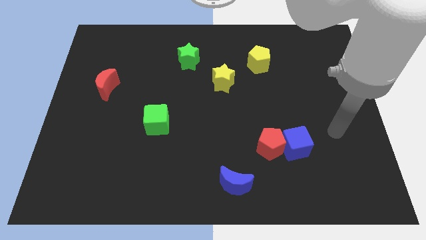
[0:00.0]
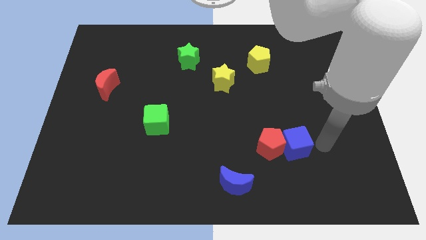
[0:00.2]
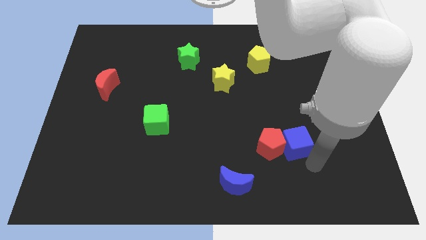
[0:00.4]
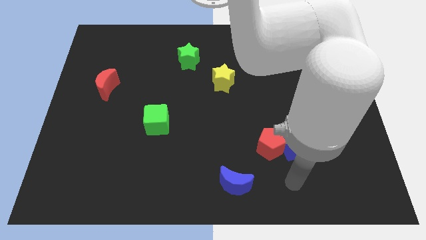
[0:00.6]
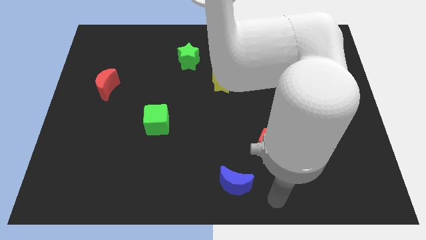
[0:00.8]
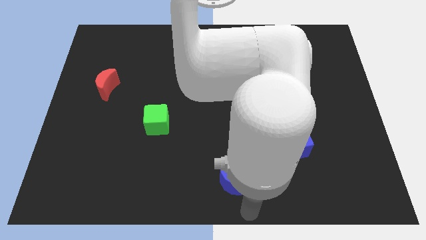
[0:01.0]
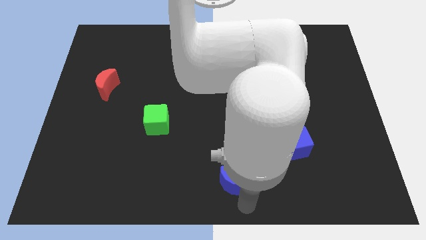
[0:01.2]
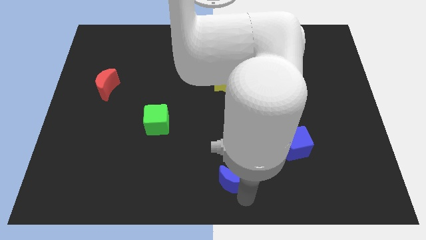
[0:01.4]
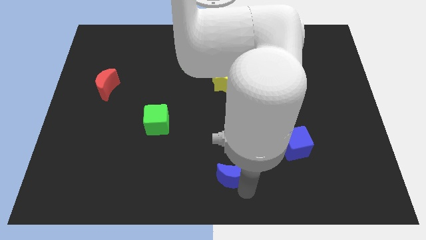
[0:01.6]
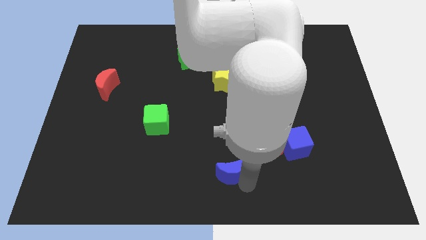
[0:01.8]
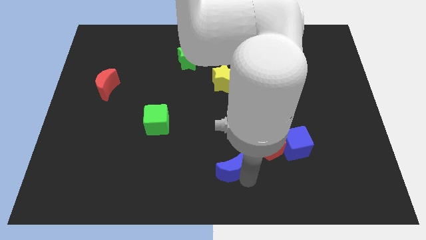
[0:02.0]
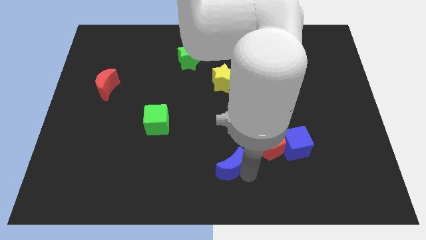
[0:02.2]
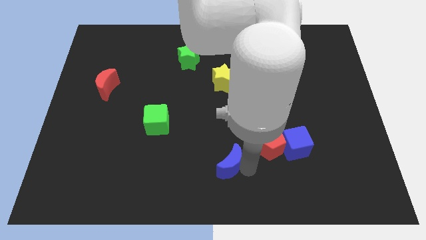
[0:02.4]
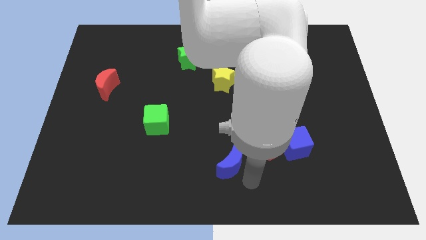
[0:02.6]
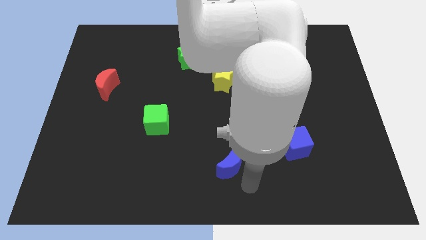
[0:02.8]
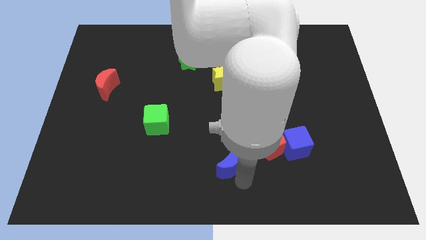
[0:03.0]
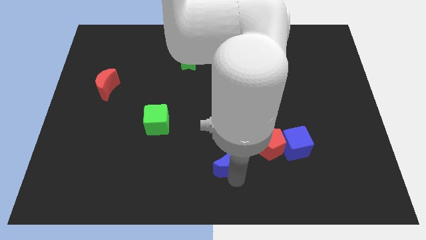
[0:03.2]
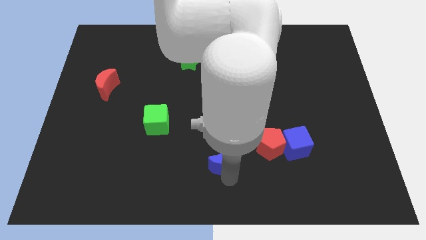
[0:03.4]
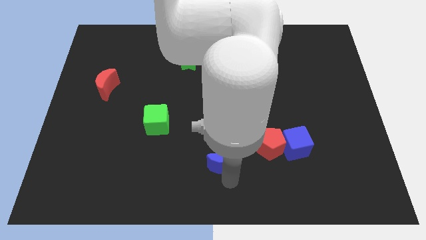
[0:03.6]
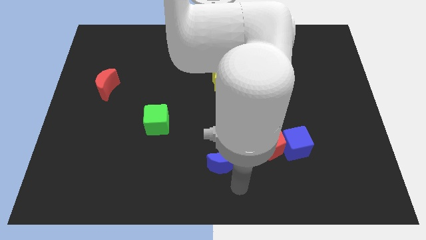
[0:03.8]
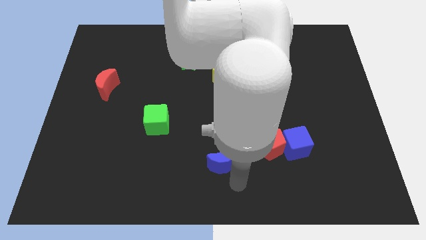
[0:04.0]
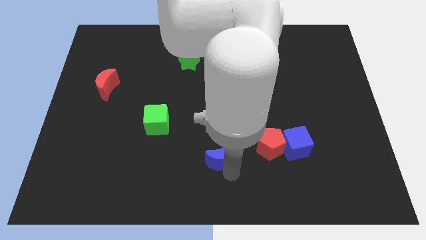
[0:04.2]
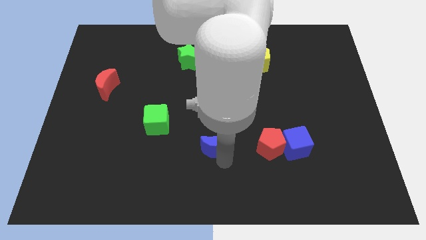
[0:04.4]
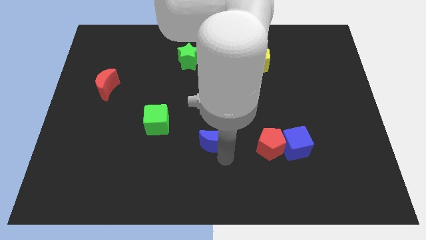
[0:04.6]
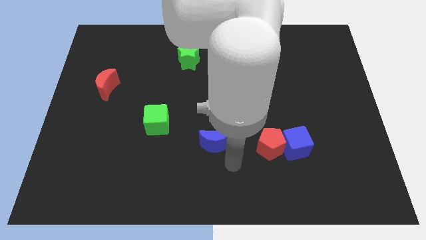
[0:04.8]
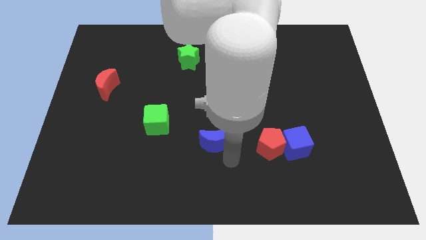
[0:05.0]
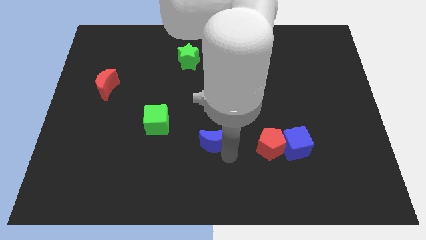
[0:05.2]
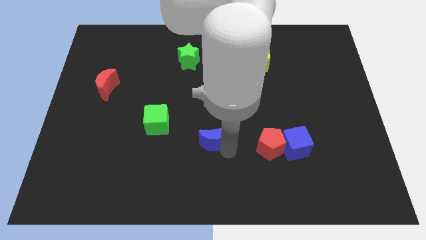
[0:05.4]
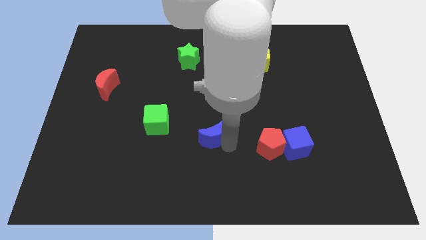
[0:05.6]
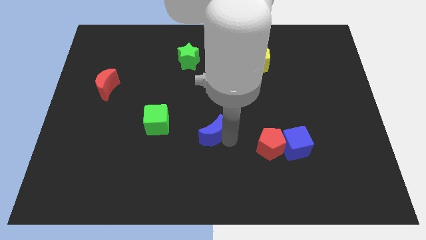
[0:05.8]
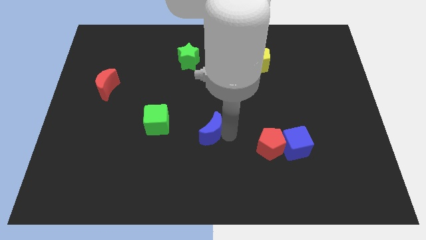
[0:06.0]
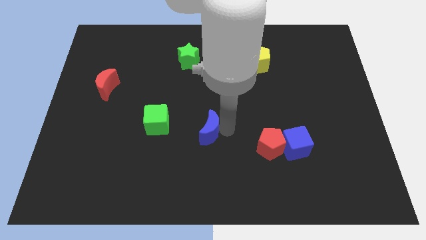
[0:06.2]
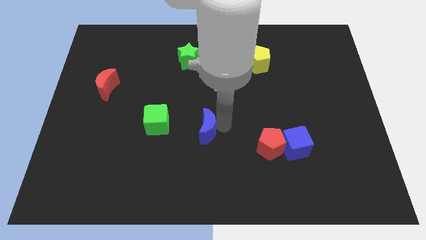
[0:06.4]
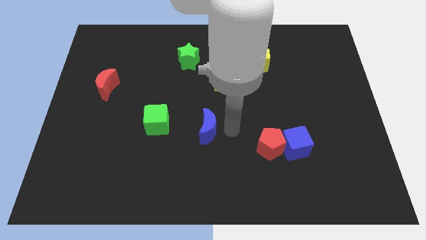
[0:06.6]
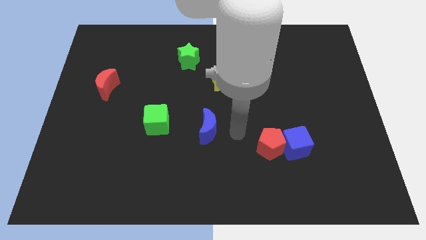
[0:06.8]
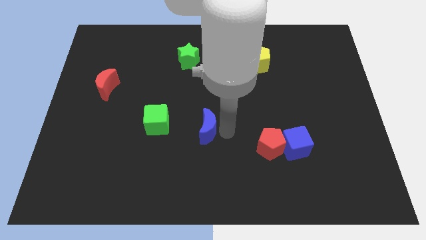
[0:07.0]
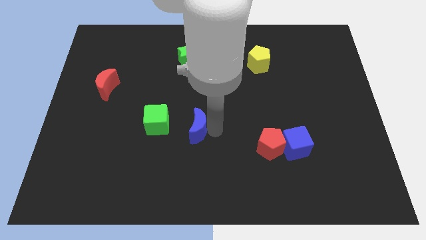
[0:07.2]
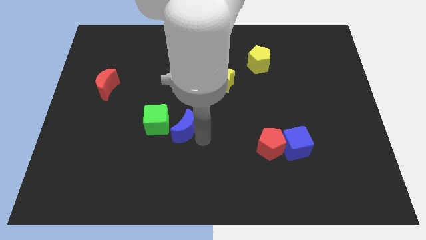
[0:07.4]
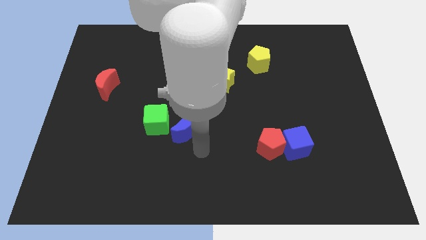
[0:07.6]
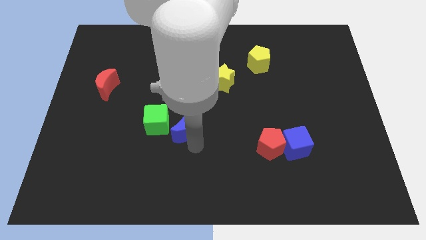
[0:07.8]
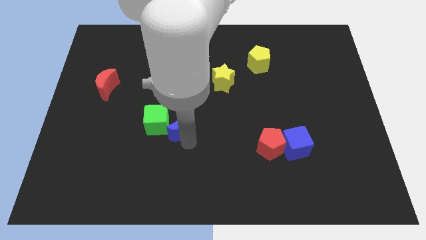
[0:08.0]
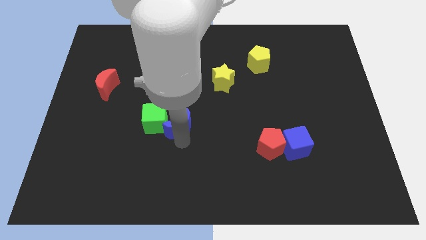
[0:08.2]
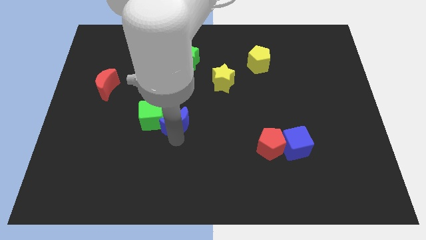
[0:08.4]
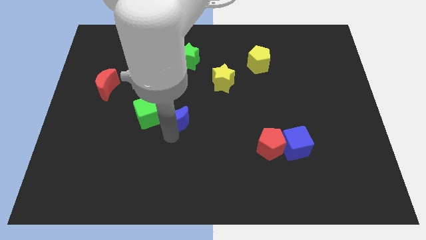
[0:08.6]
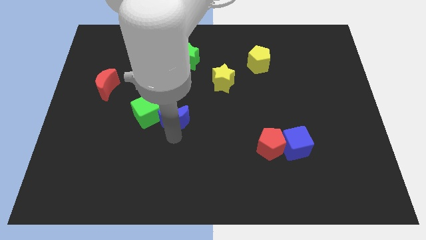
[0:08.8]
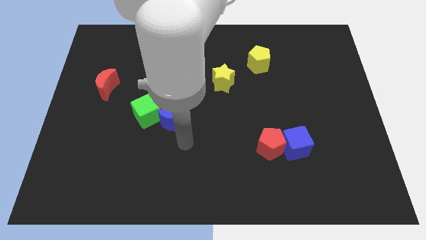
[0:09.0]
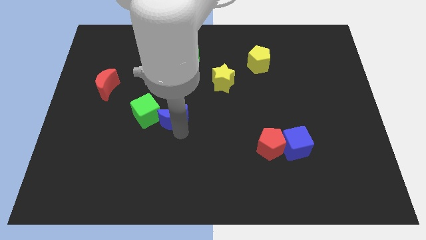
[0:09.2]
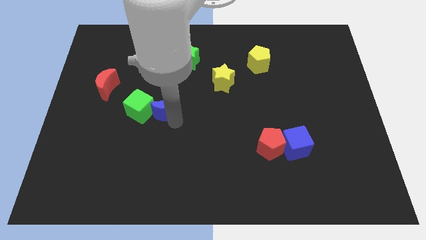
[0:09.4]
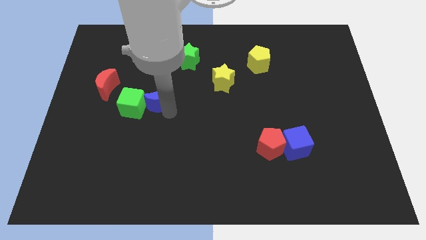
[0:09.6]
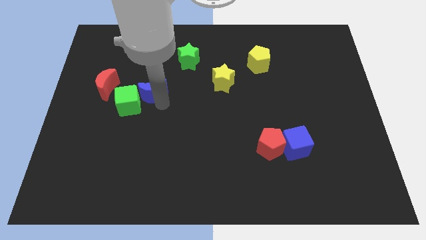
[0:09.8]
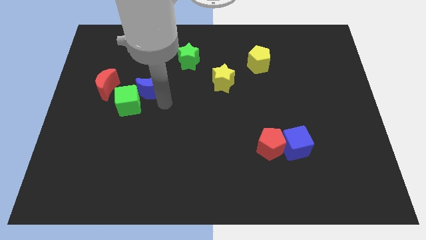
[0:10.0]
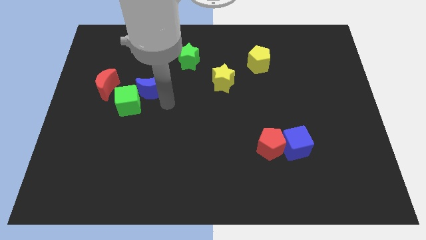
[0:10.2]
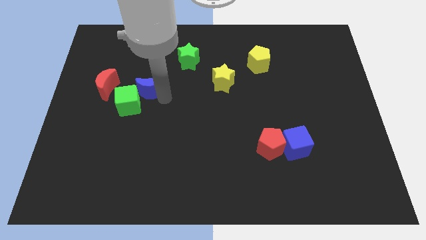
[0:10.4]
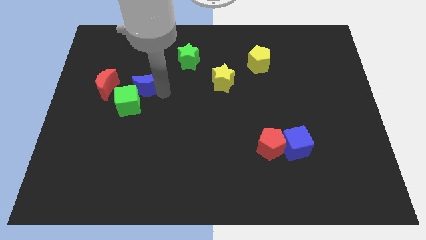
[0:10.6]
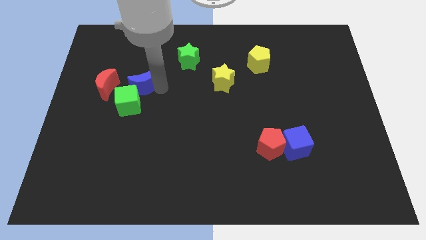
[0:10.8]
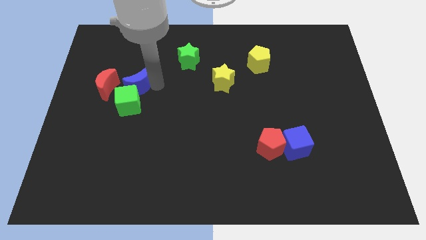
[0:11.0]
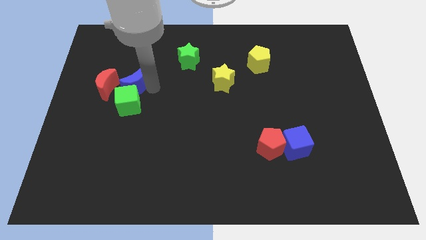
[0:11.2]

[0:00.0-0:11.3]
slide the blue moon diagonally up and to the right of the red moon

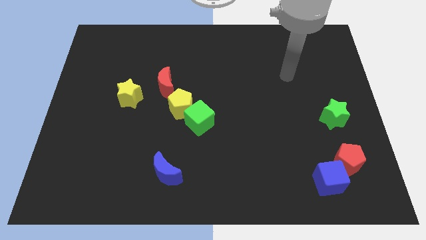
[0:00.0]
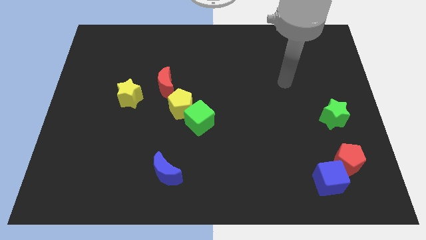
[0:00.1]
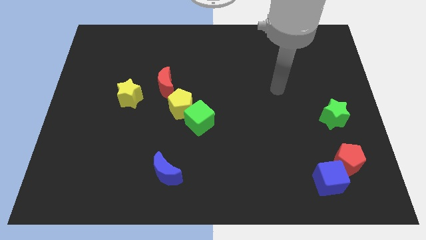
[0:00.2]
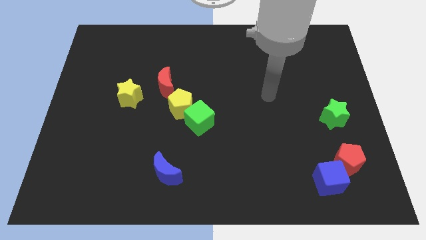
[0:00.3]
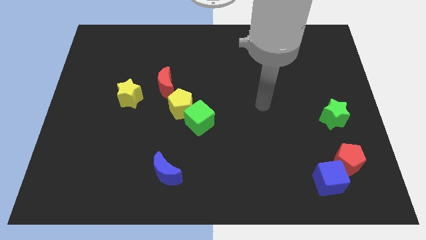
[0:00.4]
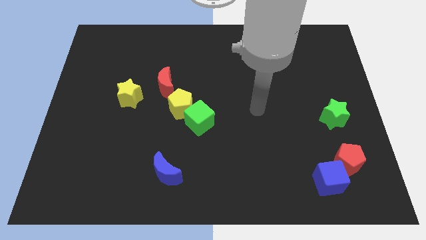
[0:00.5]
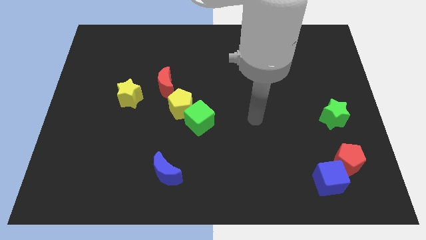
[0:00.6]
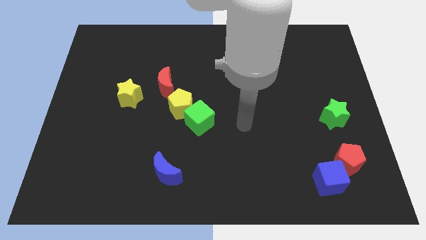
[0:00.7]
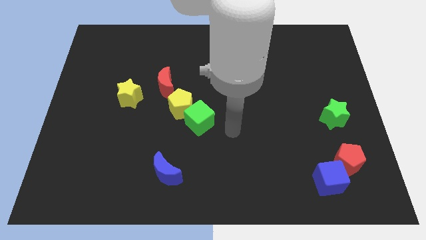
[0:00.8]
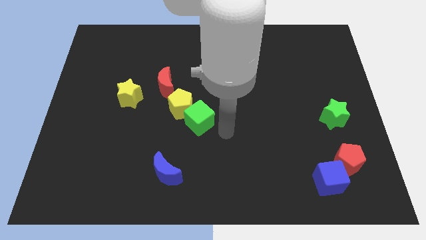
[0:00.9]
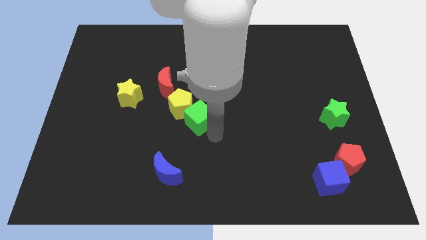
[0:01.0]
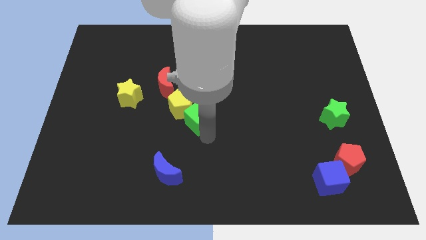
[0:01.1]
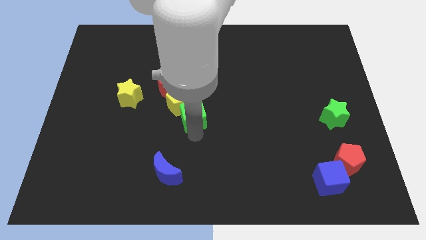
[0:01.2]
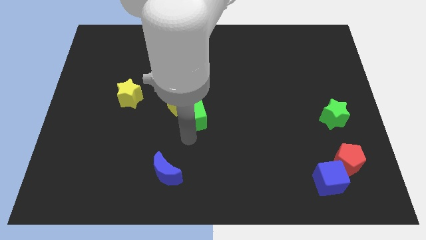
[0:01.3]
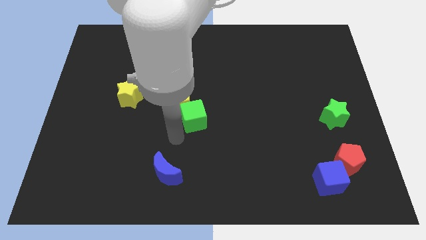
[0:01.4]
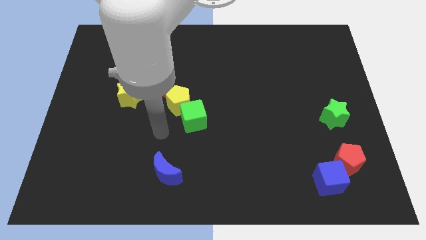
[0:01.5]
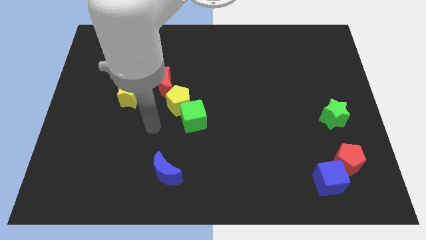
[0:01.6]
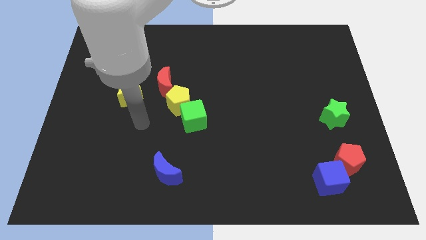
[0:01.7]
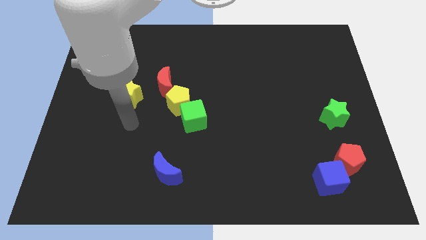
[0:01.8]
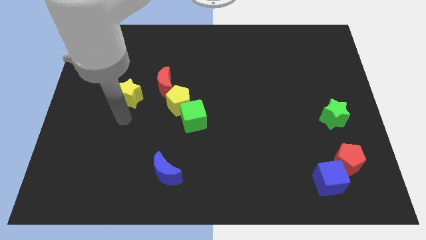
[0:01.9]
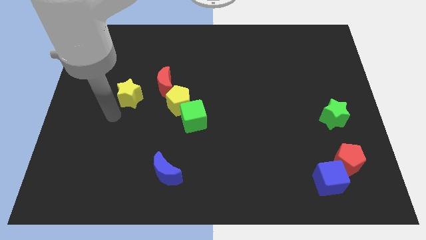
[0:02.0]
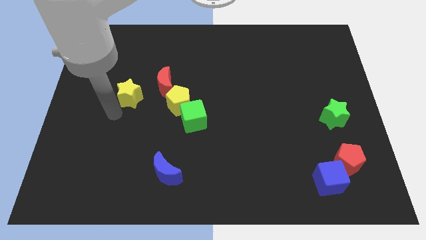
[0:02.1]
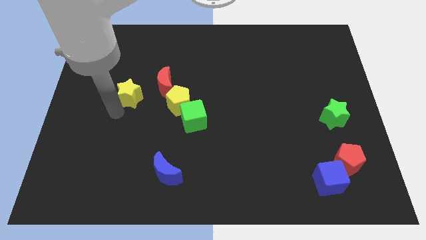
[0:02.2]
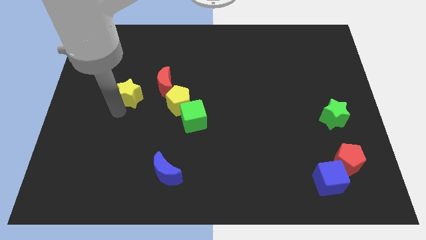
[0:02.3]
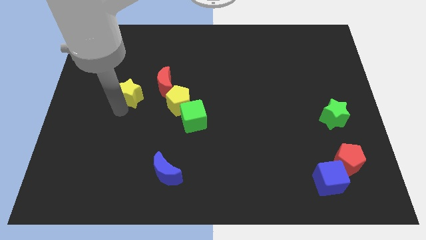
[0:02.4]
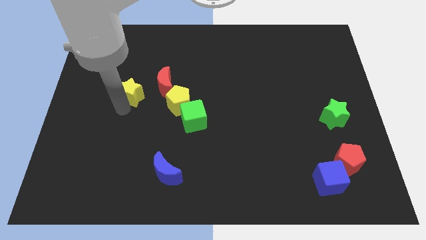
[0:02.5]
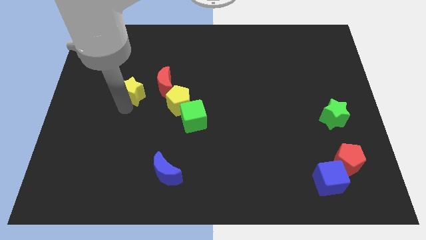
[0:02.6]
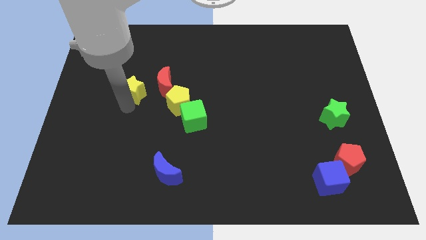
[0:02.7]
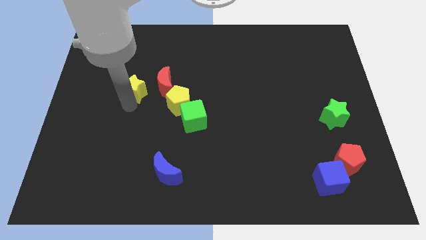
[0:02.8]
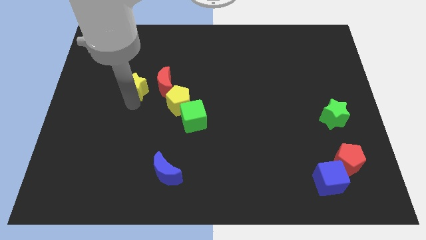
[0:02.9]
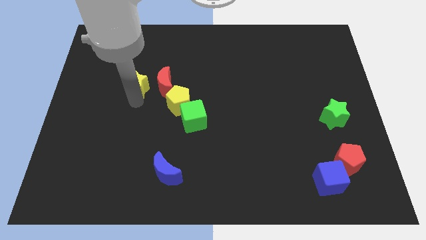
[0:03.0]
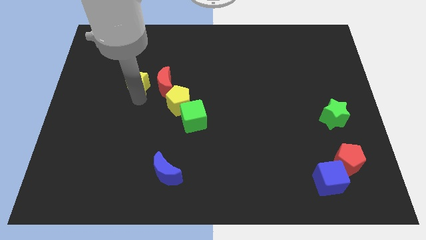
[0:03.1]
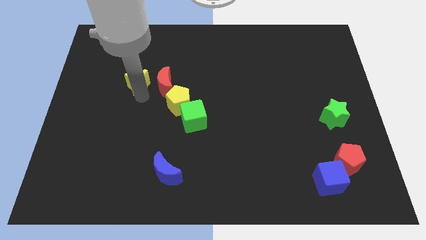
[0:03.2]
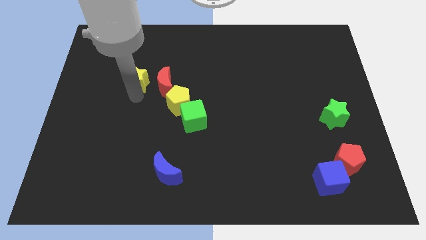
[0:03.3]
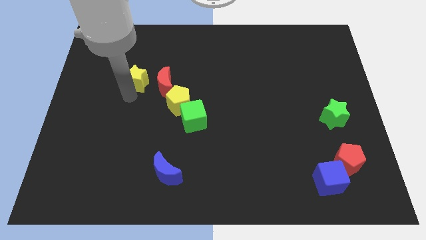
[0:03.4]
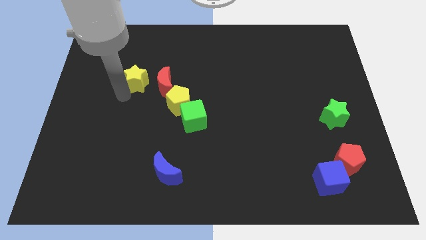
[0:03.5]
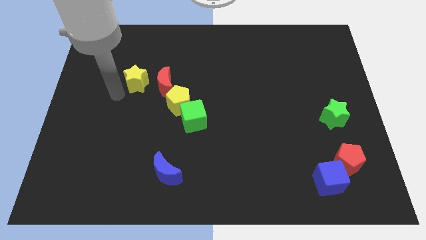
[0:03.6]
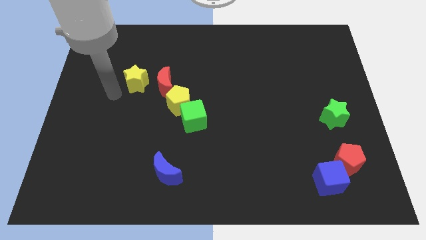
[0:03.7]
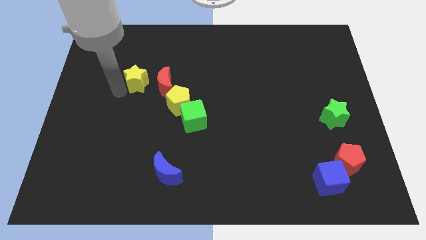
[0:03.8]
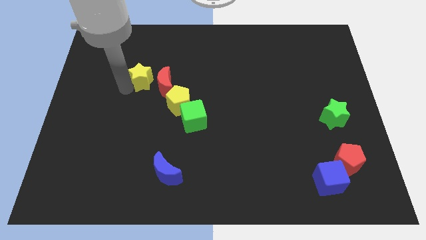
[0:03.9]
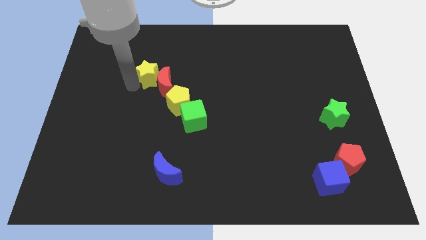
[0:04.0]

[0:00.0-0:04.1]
slide the yellow star to the top of the red moon
